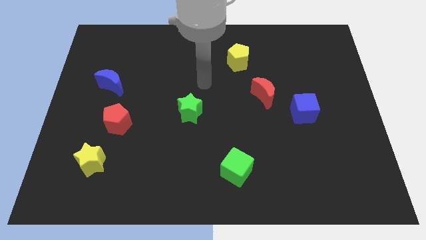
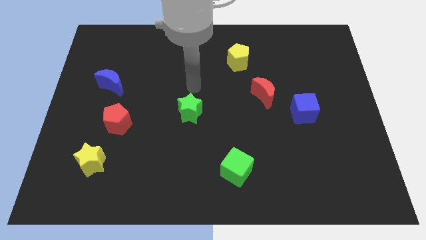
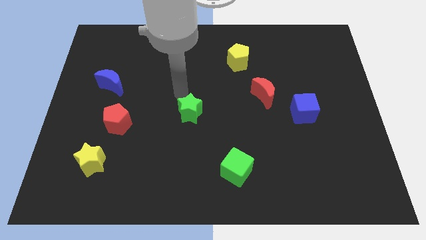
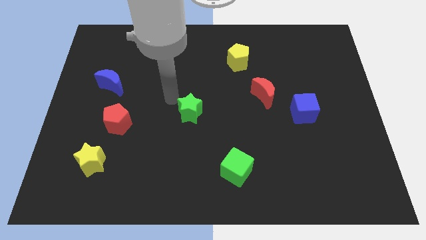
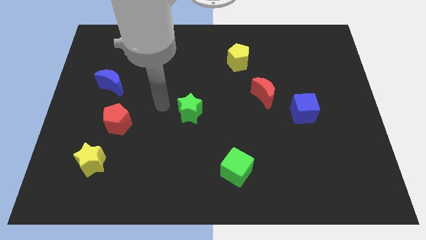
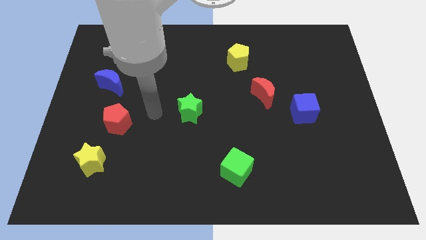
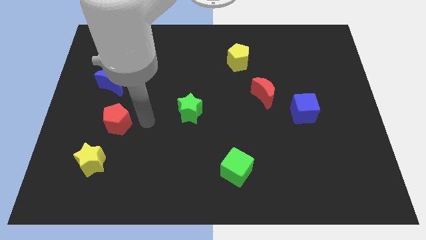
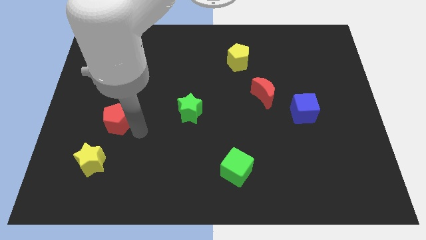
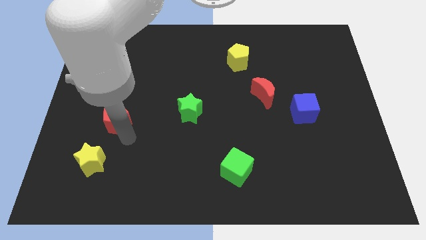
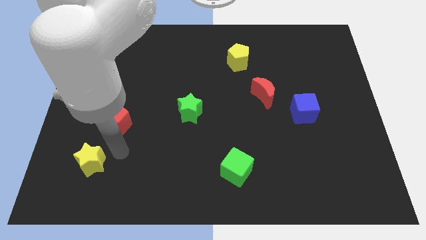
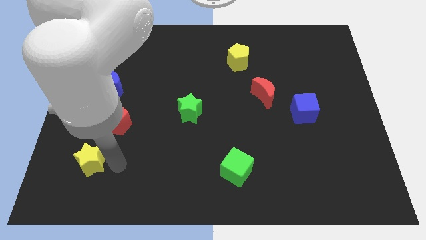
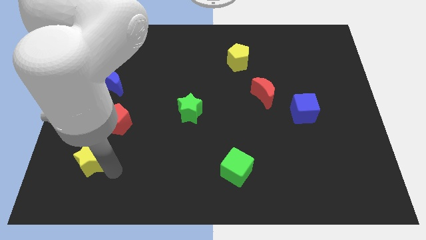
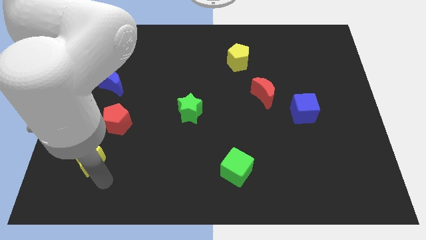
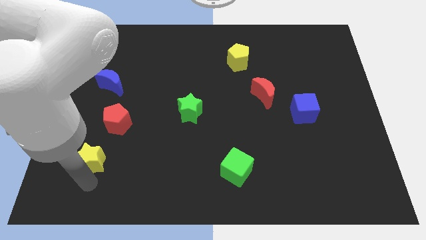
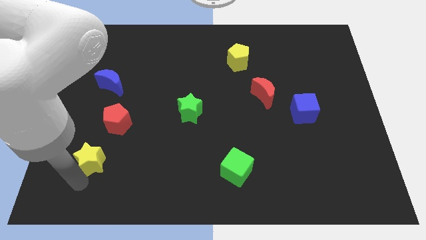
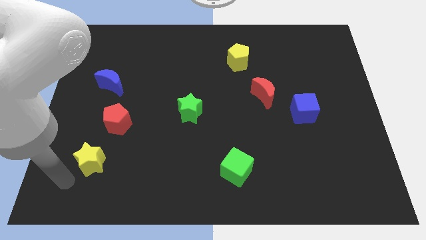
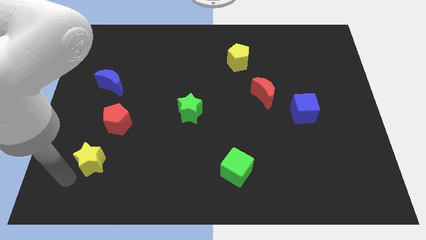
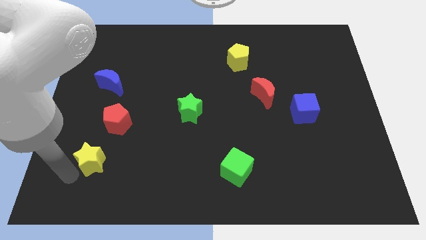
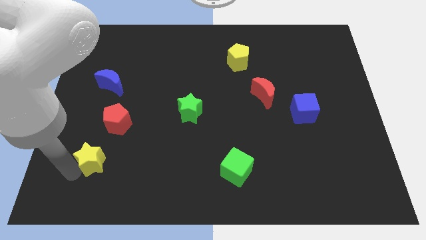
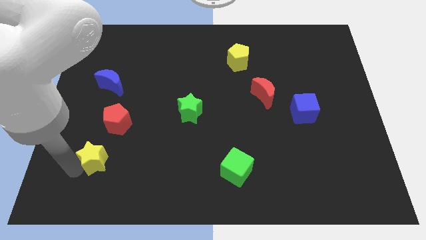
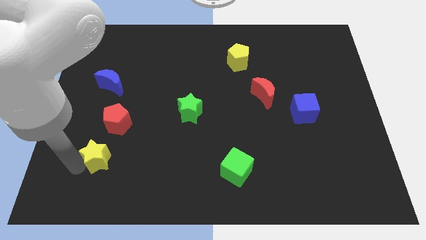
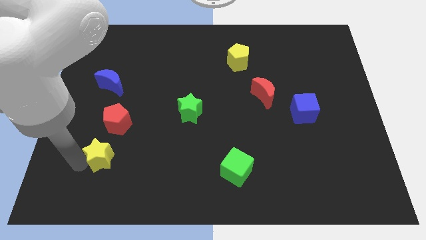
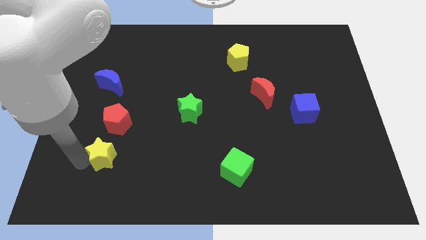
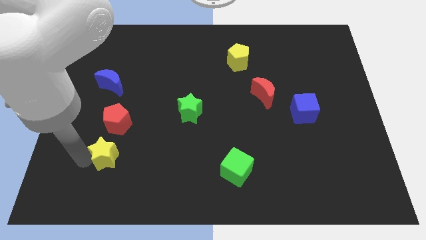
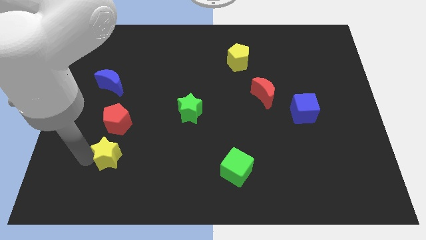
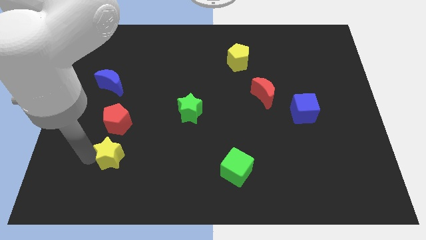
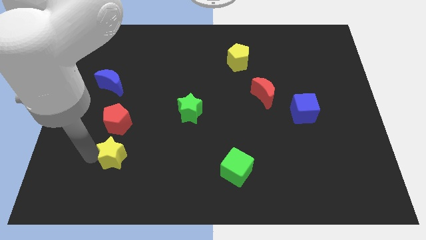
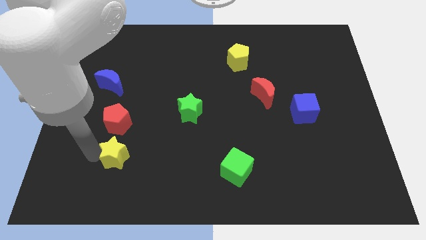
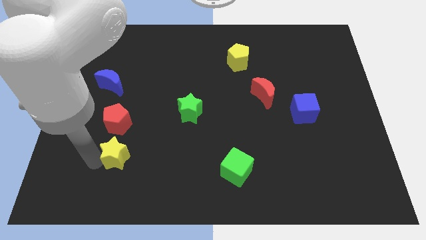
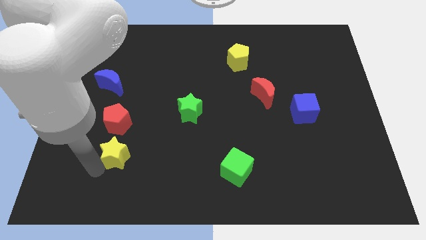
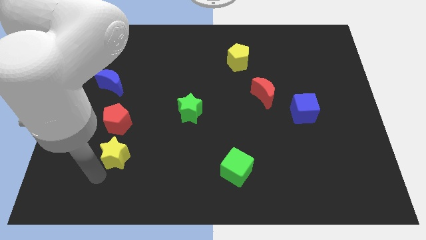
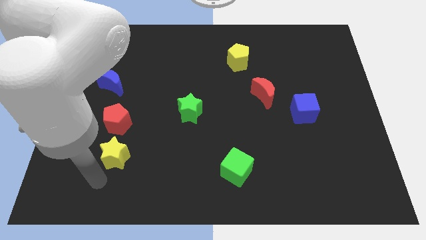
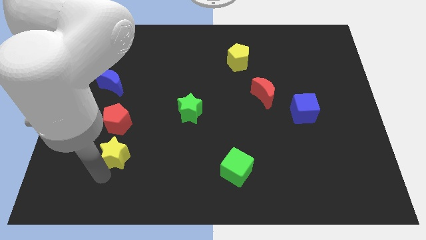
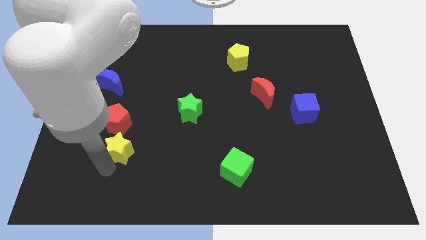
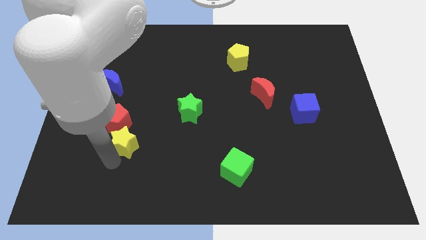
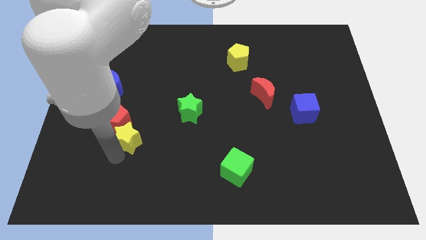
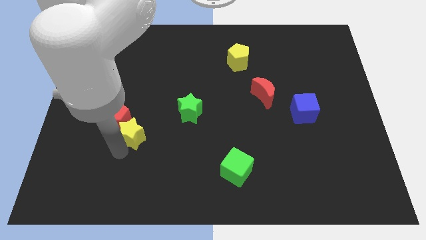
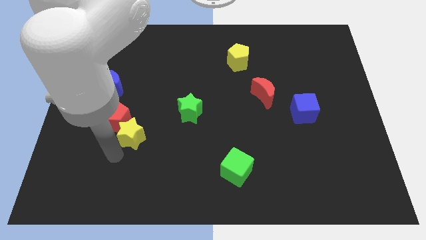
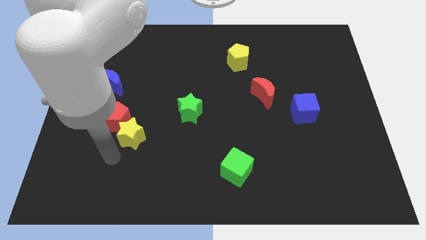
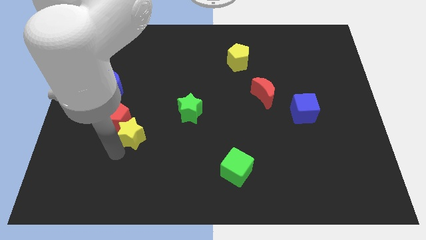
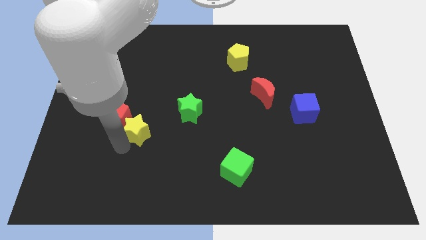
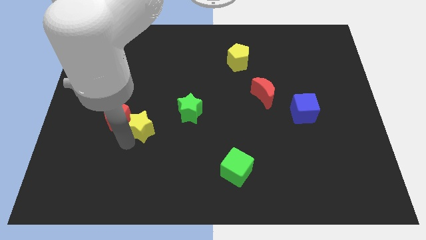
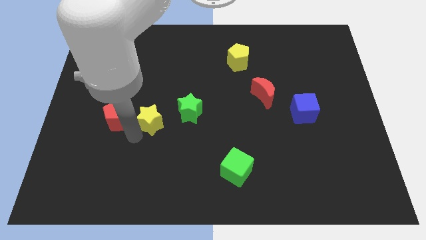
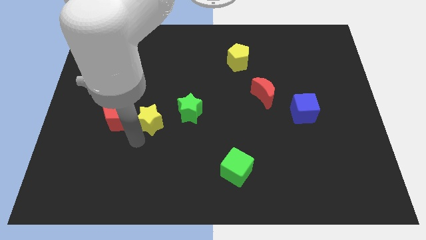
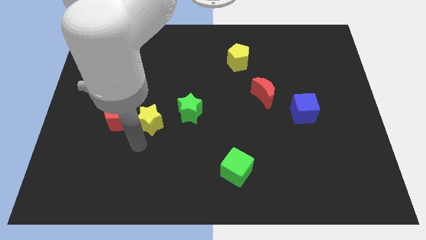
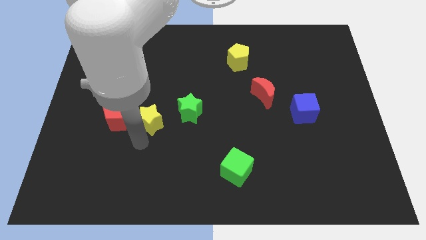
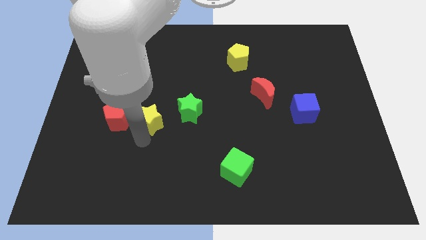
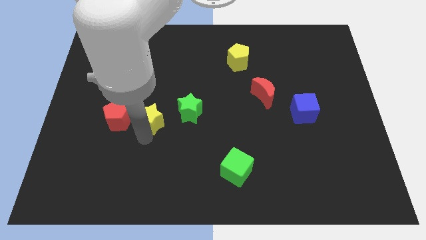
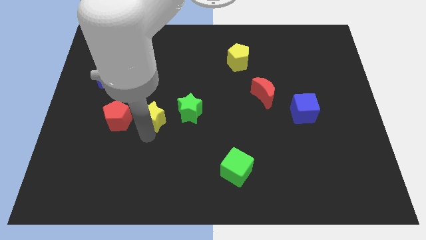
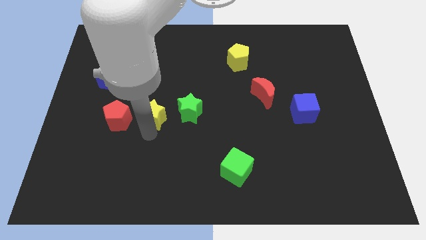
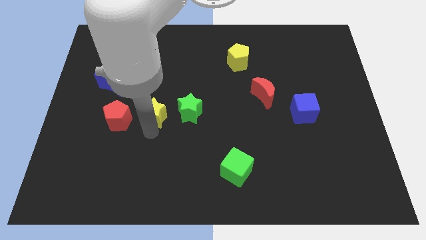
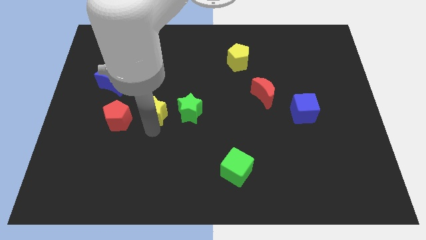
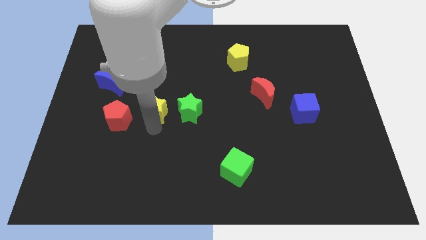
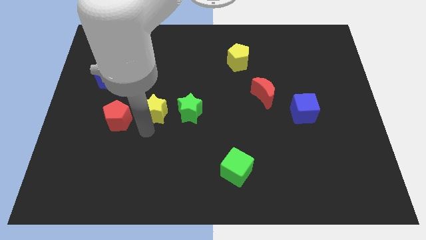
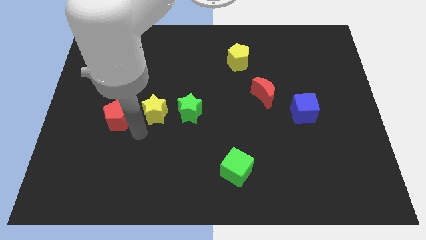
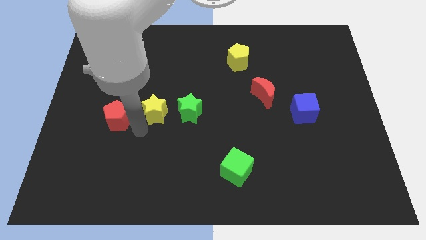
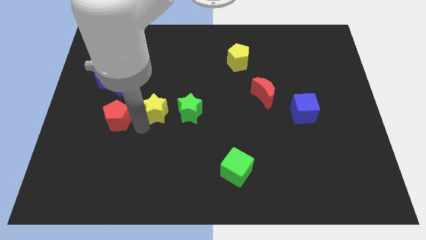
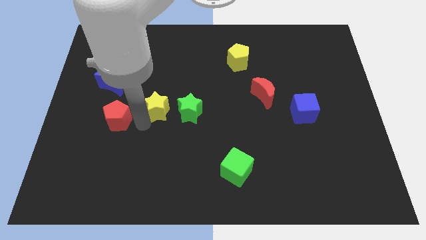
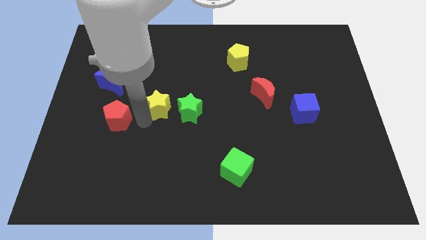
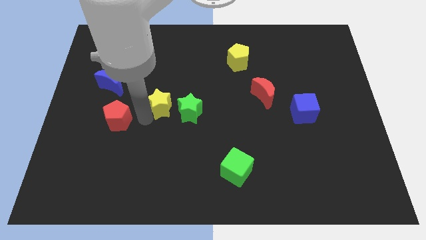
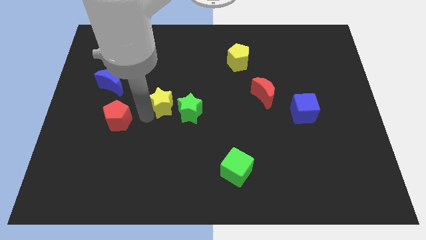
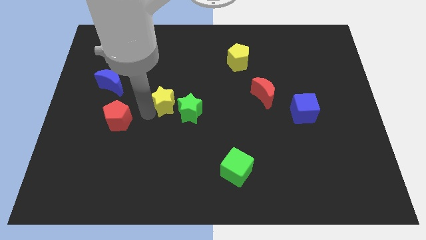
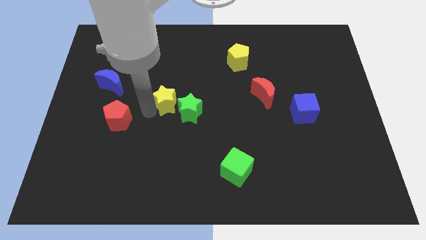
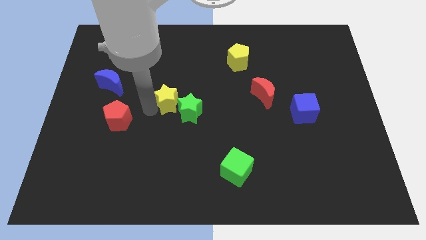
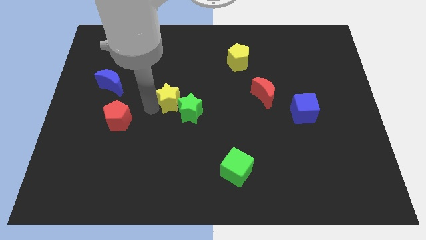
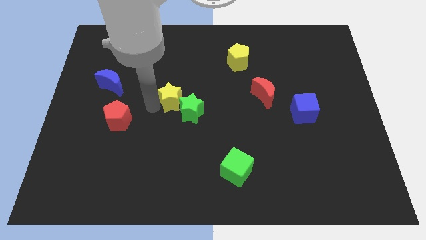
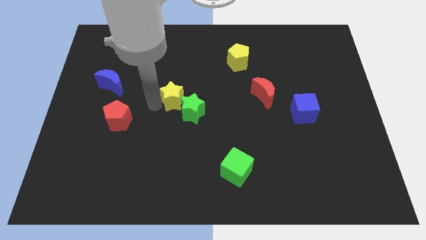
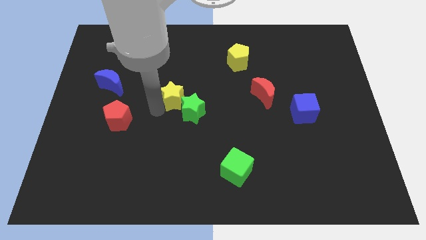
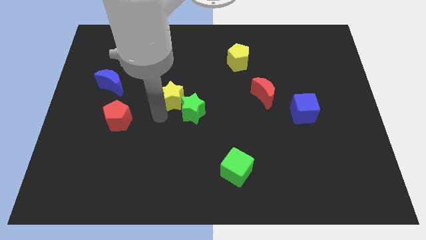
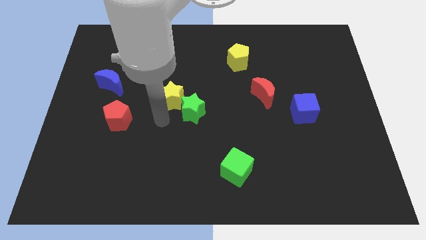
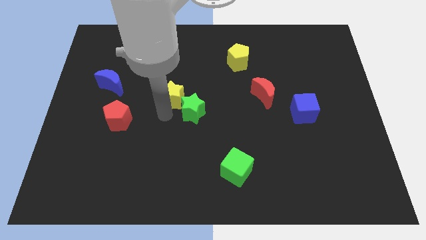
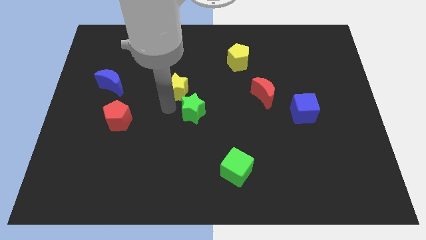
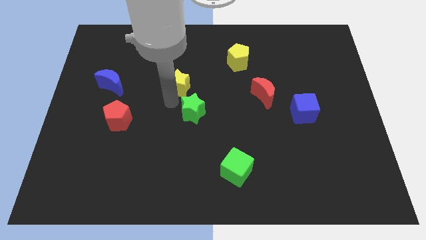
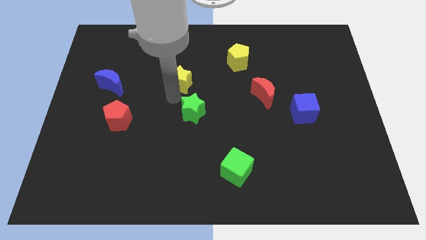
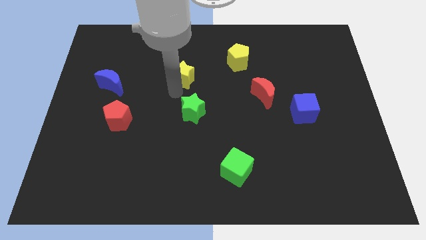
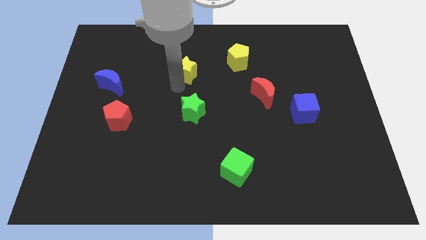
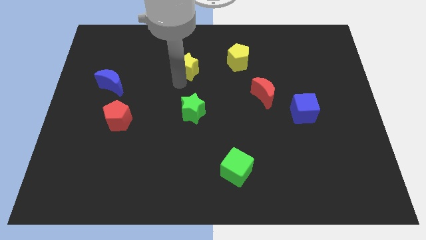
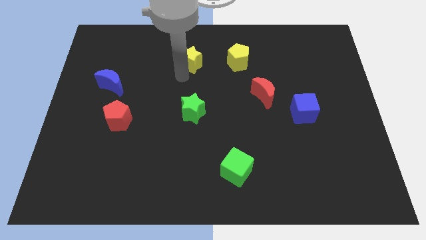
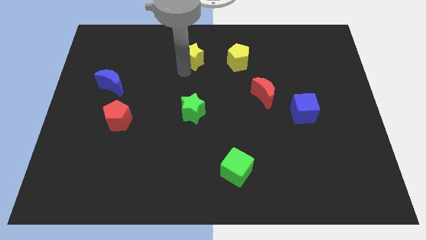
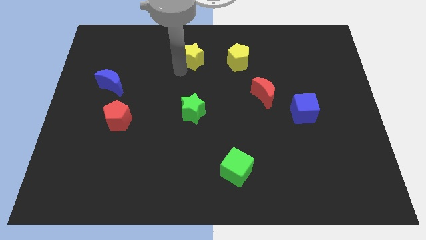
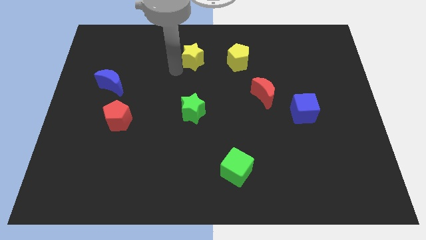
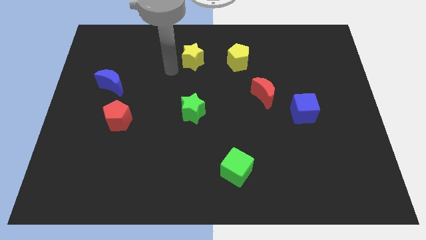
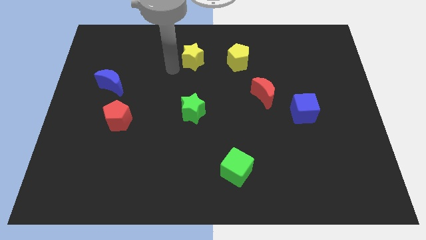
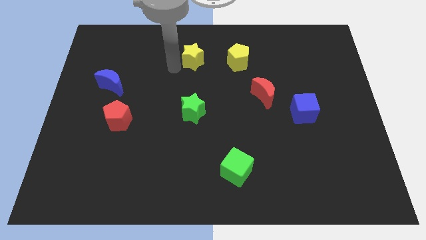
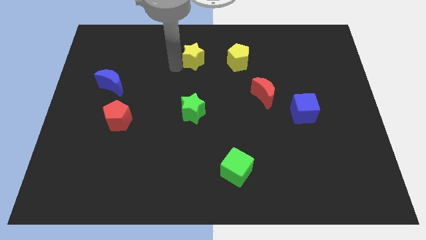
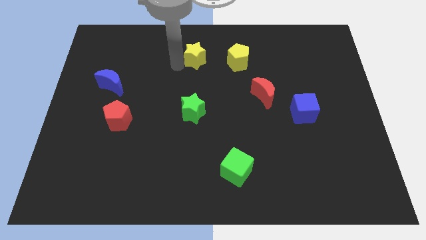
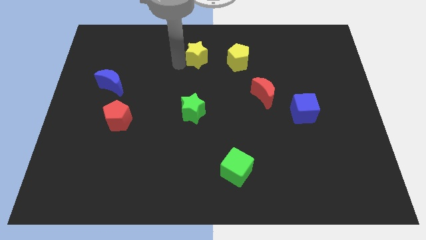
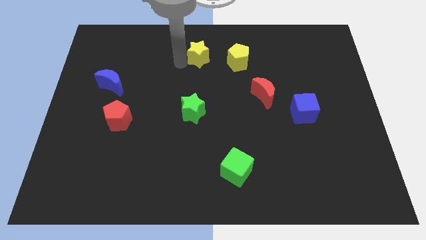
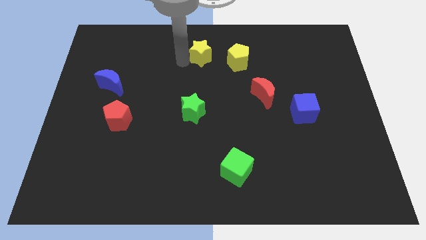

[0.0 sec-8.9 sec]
put the yellow star to the top side
